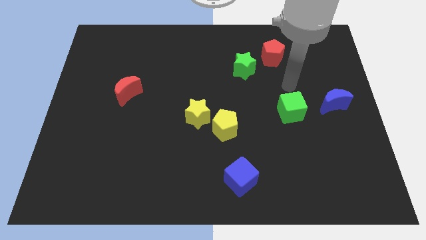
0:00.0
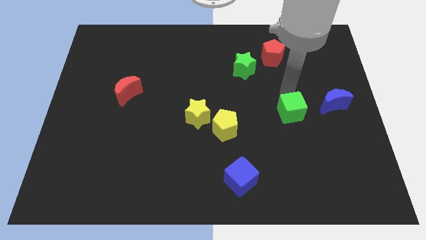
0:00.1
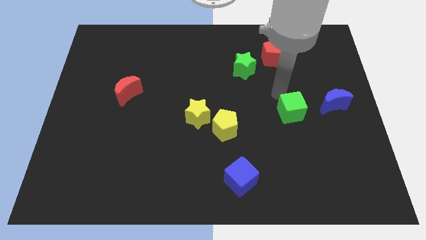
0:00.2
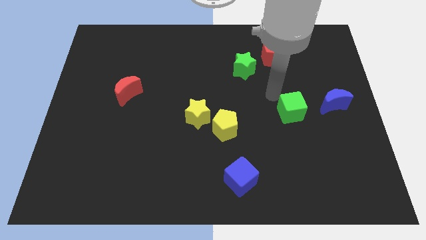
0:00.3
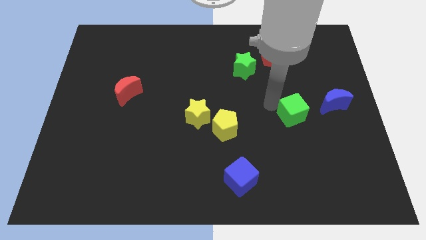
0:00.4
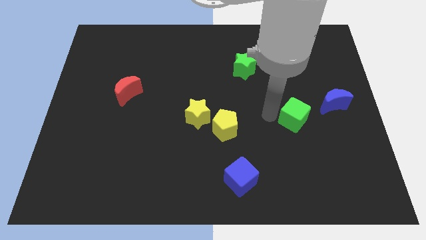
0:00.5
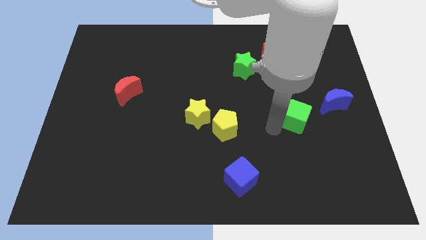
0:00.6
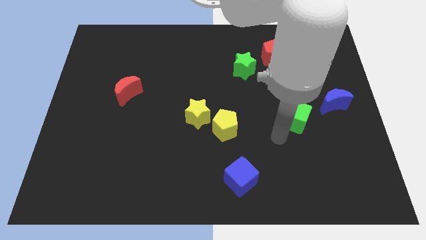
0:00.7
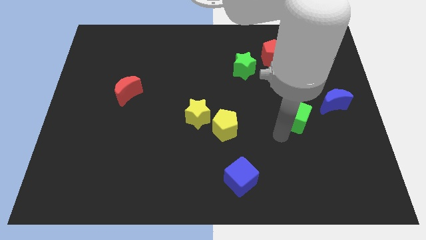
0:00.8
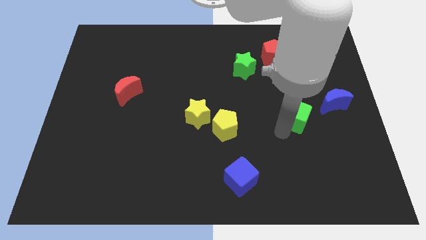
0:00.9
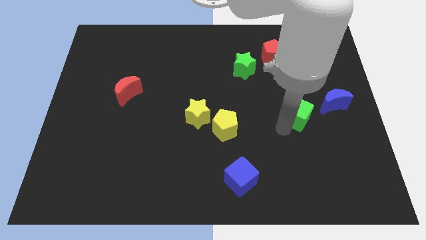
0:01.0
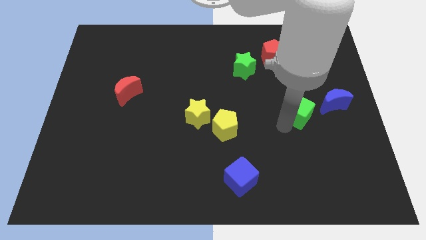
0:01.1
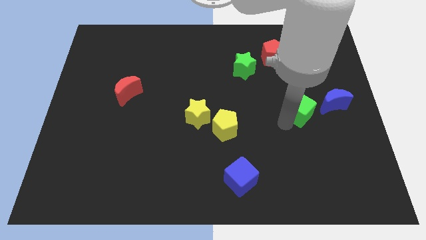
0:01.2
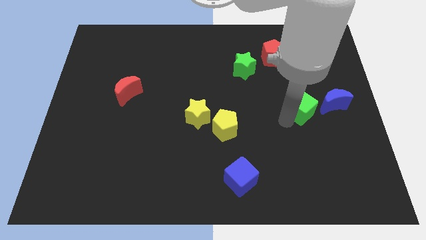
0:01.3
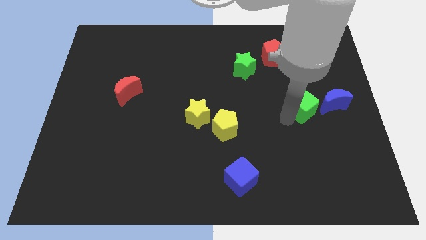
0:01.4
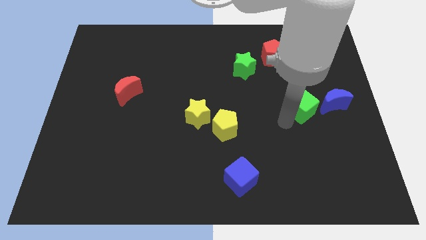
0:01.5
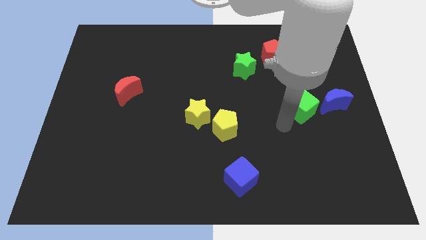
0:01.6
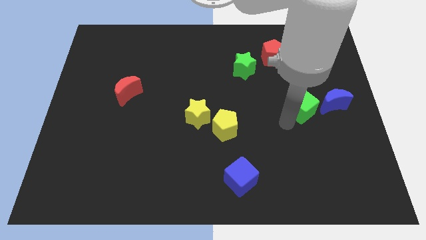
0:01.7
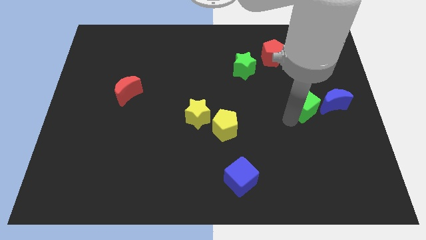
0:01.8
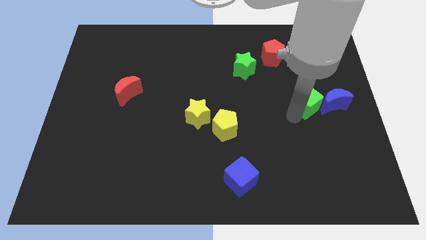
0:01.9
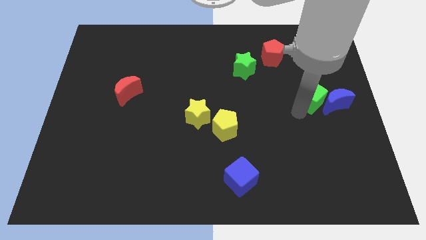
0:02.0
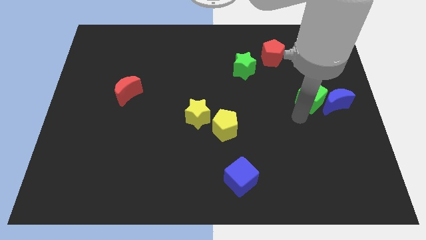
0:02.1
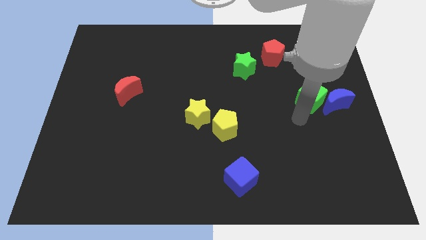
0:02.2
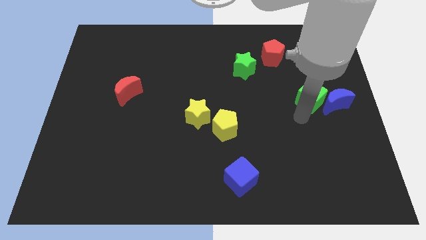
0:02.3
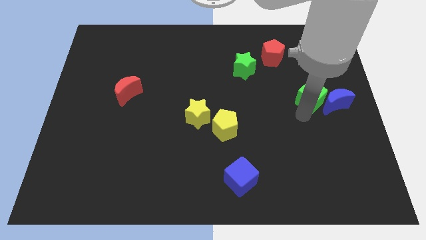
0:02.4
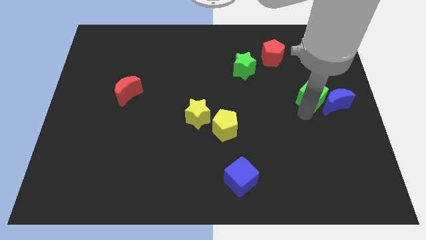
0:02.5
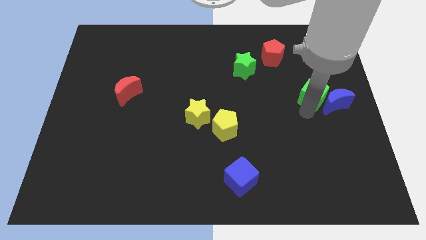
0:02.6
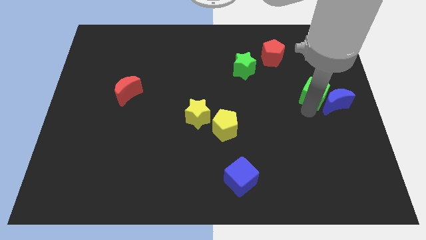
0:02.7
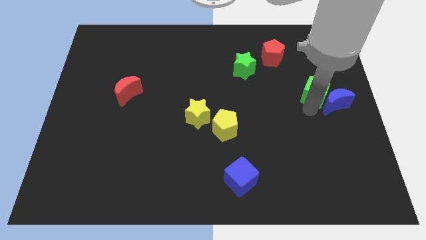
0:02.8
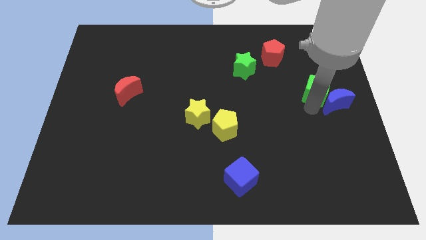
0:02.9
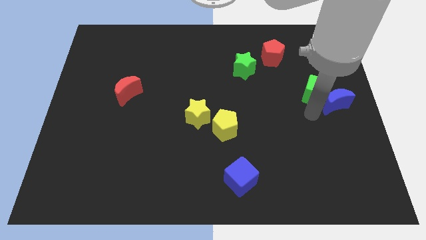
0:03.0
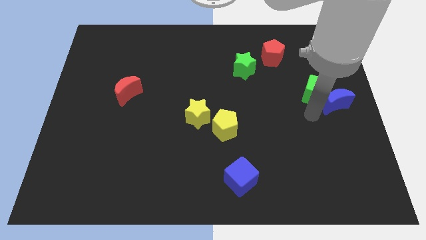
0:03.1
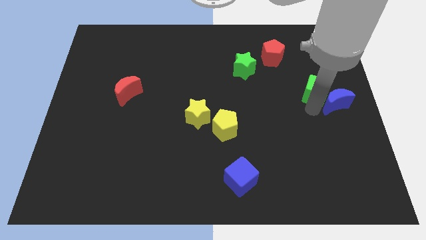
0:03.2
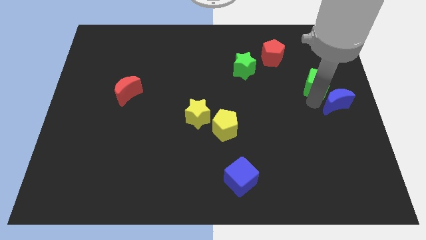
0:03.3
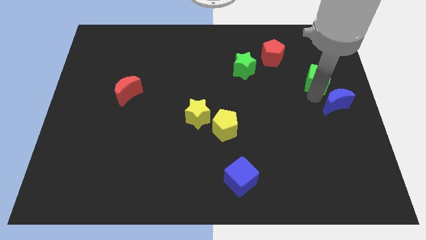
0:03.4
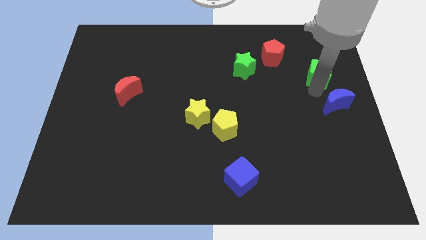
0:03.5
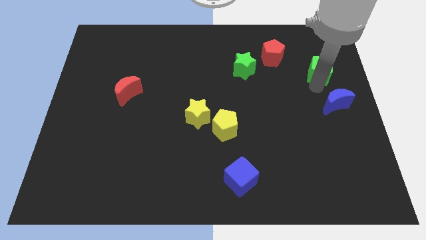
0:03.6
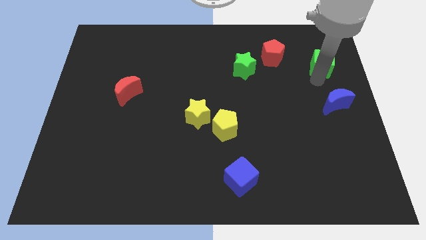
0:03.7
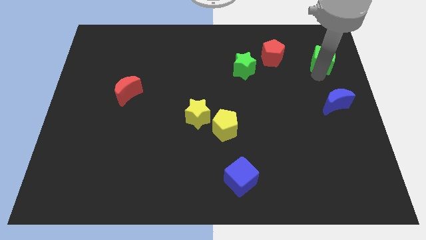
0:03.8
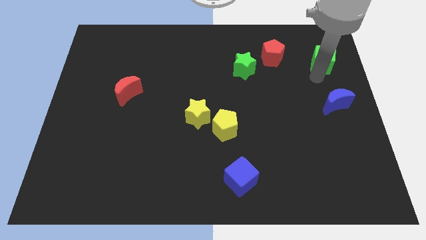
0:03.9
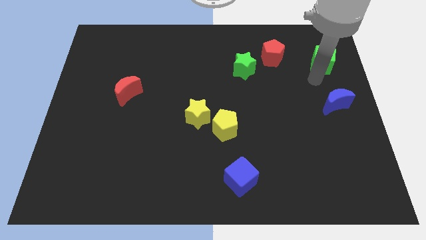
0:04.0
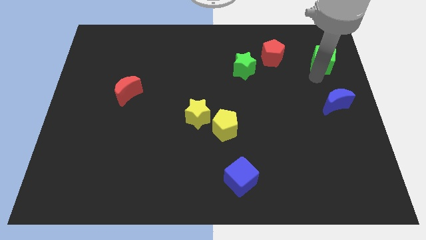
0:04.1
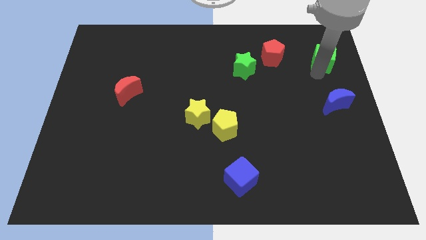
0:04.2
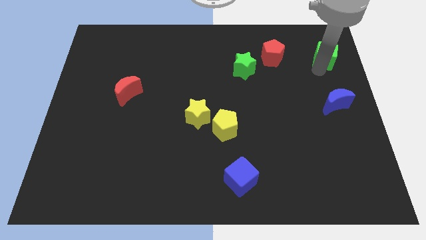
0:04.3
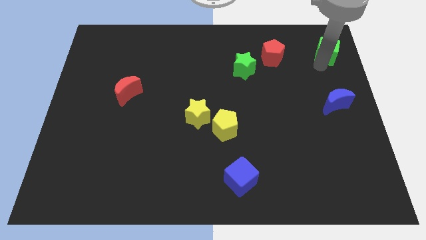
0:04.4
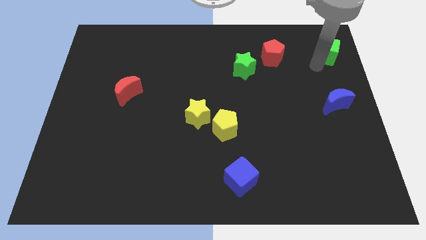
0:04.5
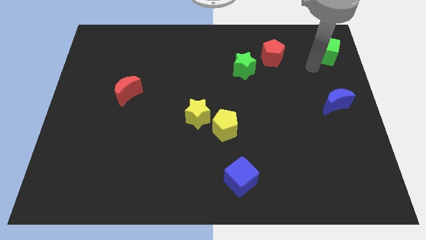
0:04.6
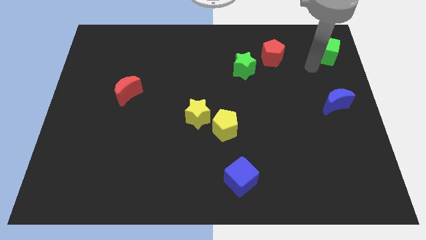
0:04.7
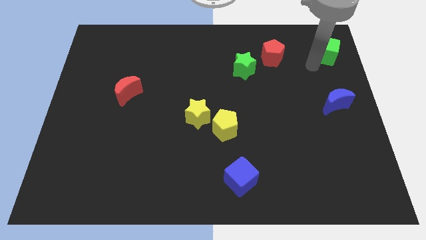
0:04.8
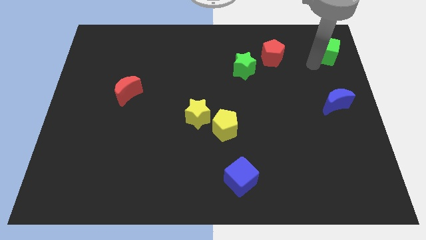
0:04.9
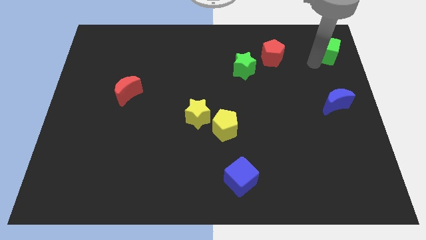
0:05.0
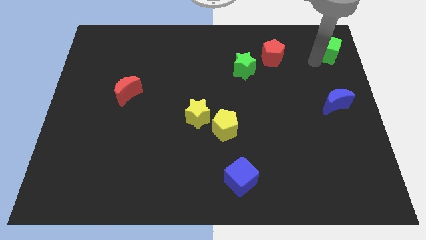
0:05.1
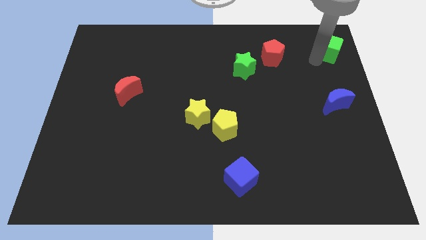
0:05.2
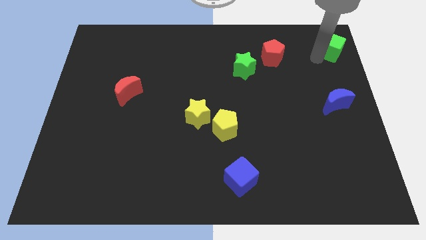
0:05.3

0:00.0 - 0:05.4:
push the green cube to the top right of the board

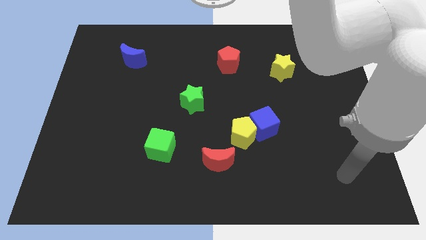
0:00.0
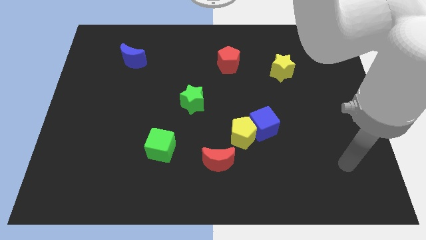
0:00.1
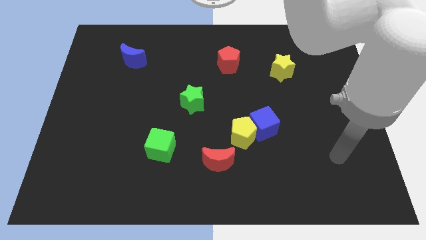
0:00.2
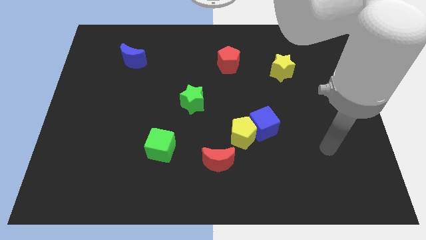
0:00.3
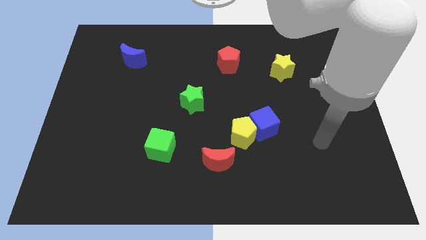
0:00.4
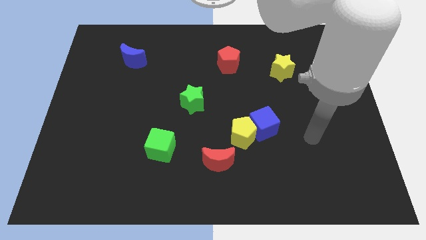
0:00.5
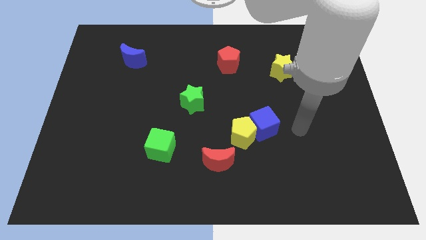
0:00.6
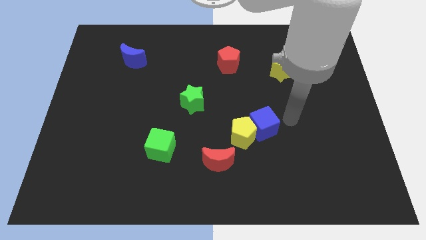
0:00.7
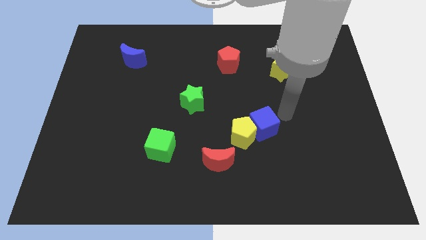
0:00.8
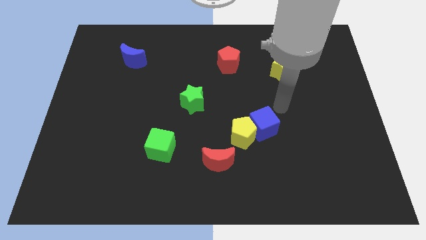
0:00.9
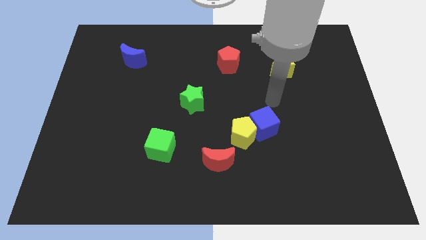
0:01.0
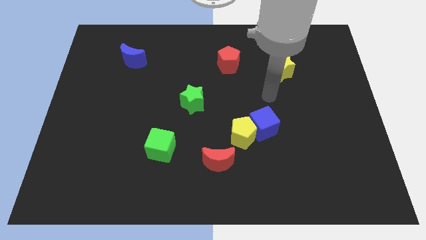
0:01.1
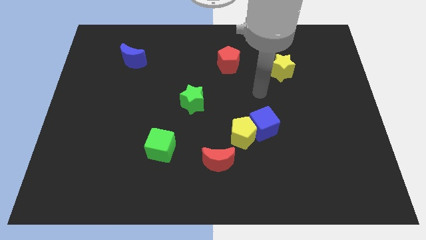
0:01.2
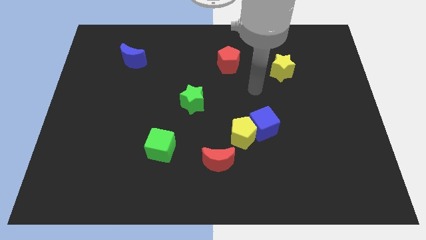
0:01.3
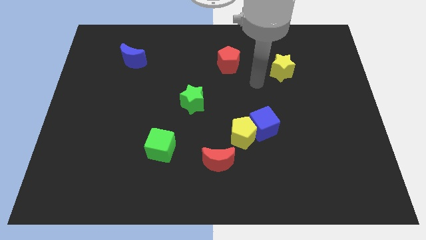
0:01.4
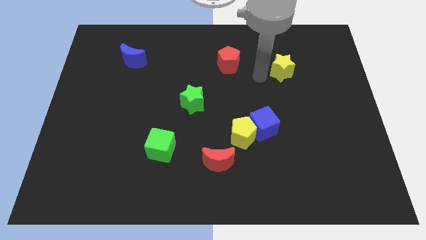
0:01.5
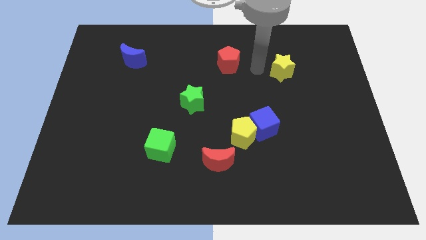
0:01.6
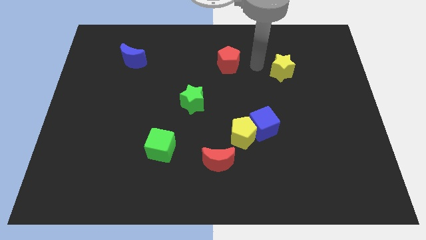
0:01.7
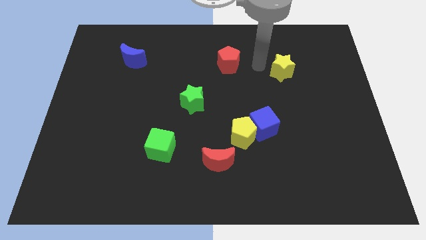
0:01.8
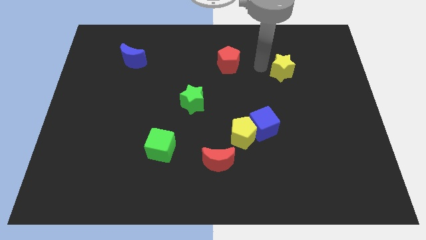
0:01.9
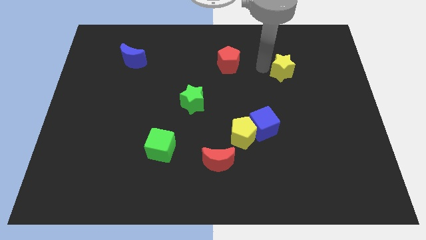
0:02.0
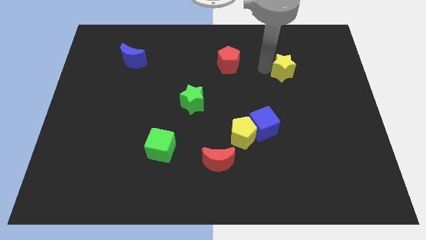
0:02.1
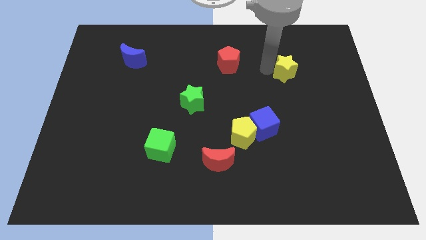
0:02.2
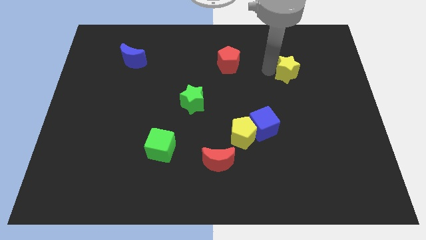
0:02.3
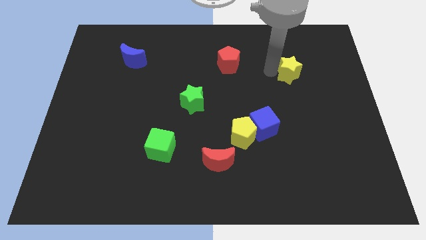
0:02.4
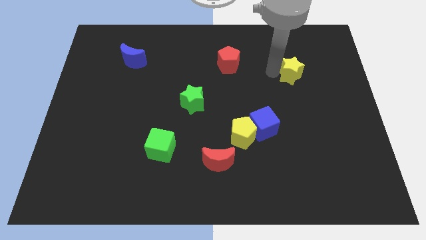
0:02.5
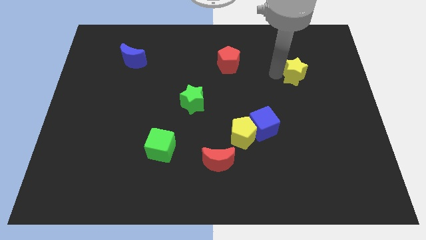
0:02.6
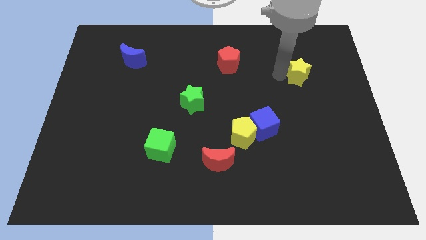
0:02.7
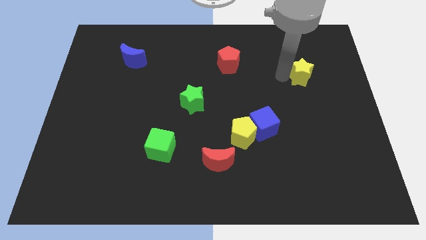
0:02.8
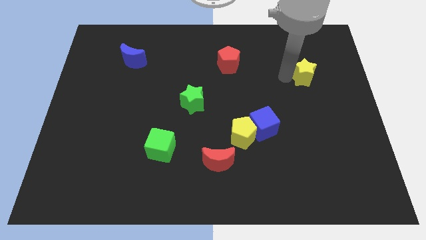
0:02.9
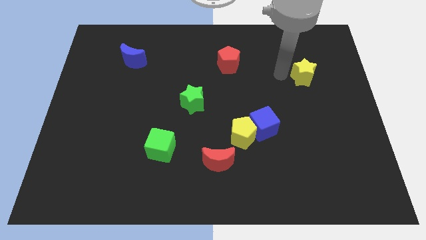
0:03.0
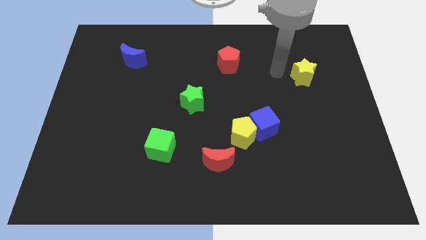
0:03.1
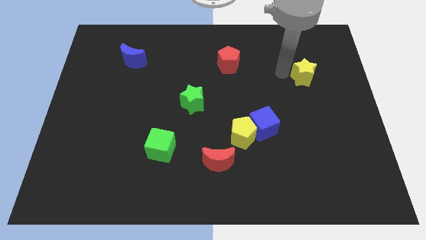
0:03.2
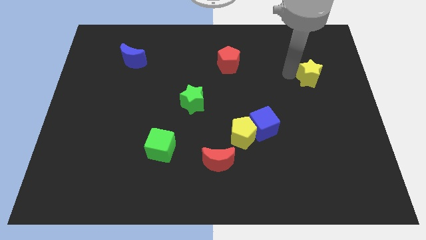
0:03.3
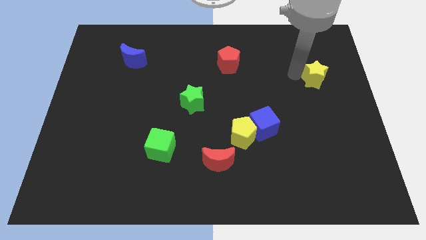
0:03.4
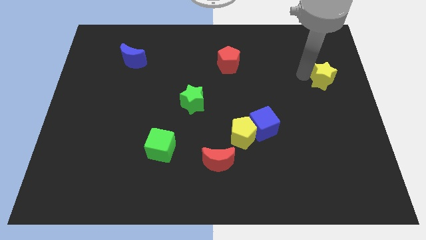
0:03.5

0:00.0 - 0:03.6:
slide the yellow star to the right side of the board
